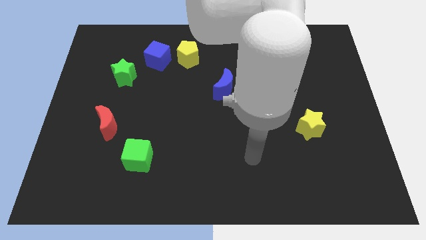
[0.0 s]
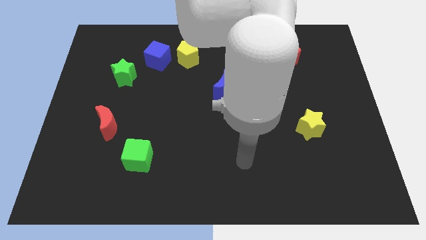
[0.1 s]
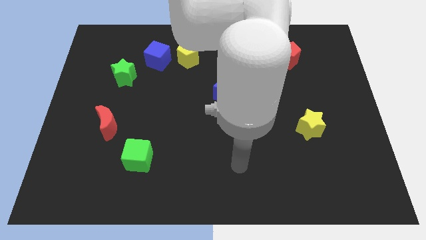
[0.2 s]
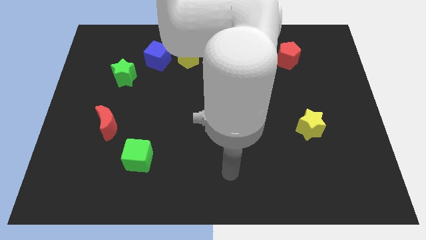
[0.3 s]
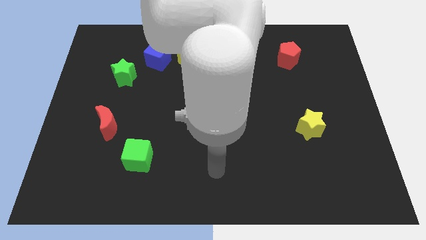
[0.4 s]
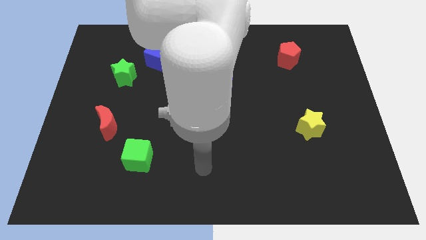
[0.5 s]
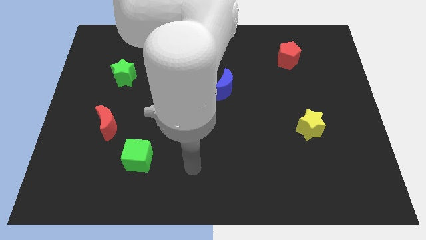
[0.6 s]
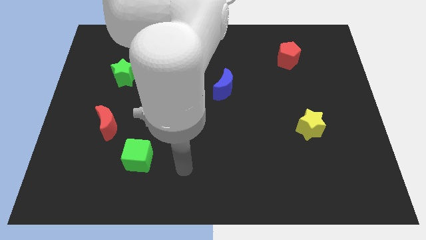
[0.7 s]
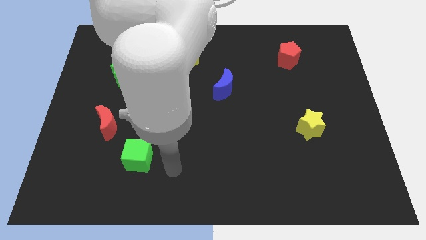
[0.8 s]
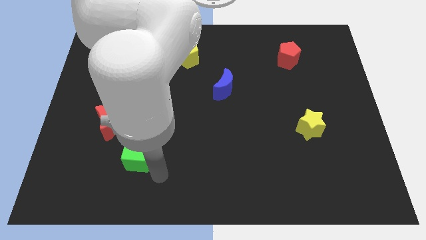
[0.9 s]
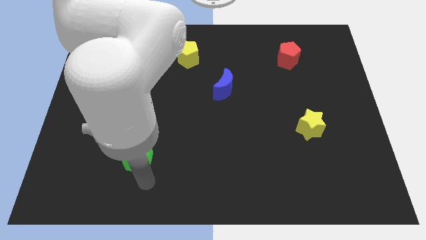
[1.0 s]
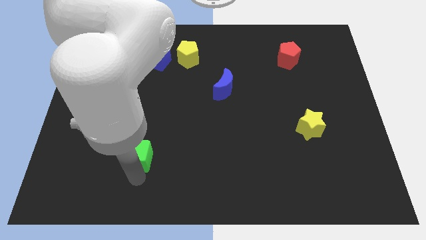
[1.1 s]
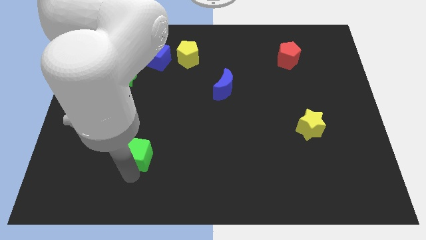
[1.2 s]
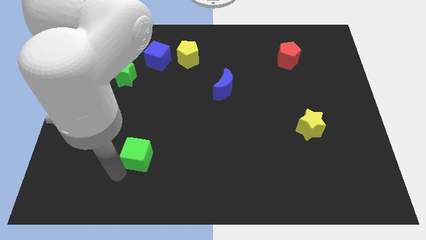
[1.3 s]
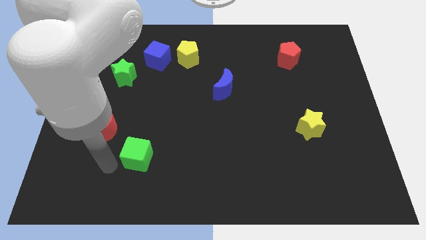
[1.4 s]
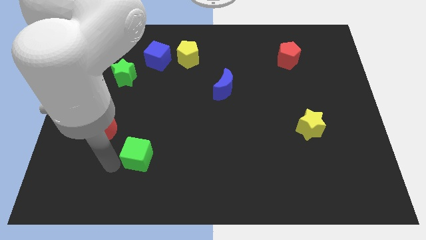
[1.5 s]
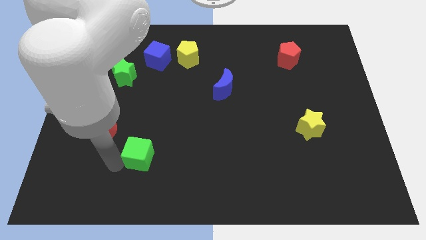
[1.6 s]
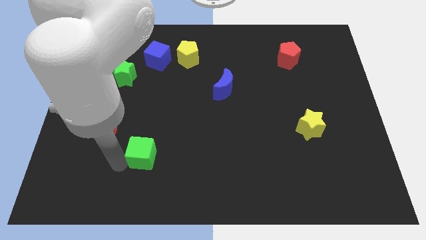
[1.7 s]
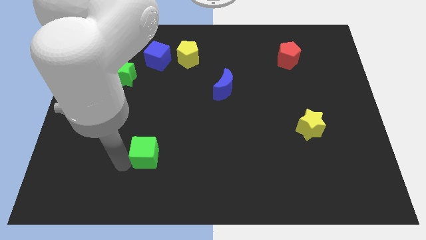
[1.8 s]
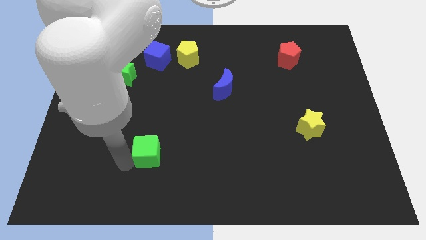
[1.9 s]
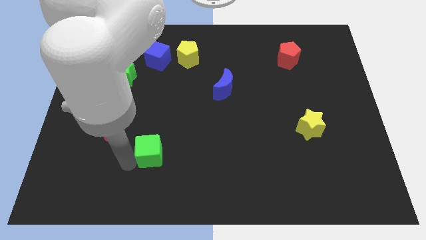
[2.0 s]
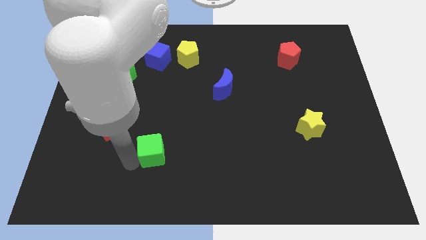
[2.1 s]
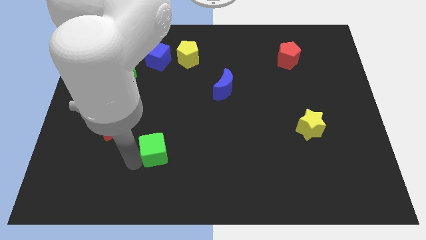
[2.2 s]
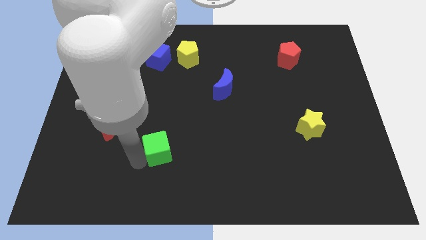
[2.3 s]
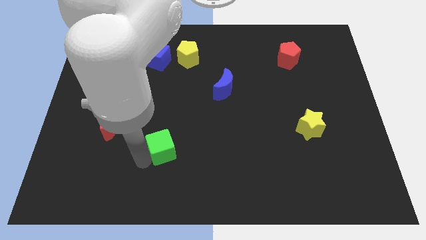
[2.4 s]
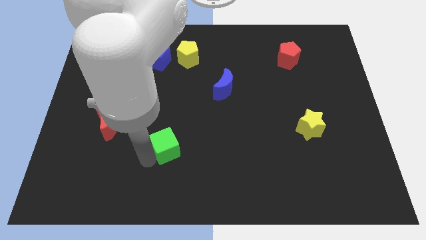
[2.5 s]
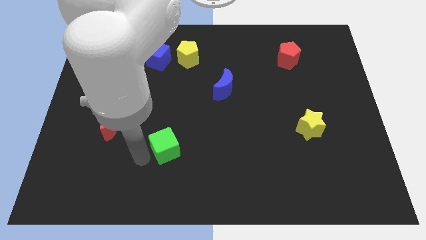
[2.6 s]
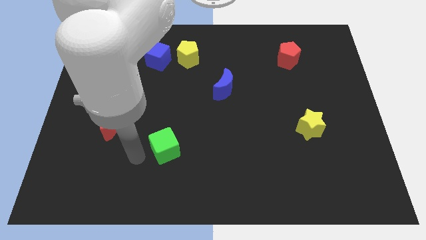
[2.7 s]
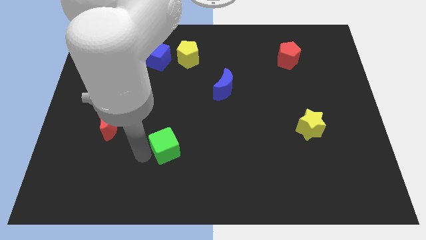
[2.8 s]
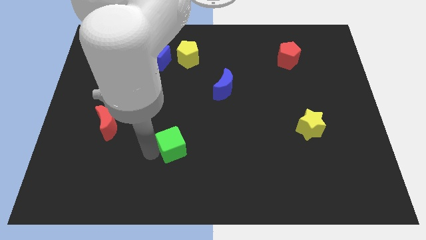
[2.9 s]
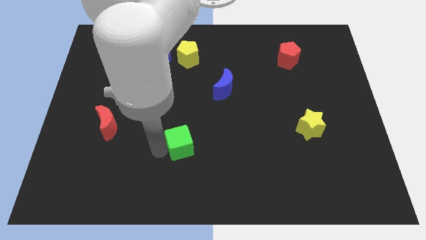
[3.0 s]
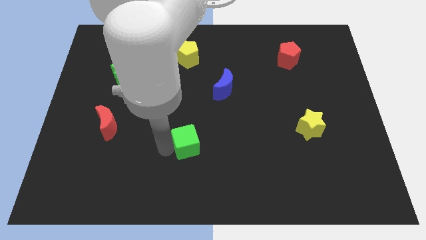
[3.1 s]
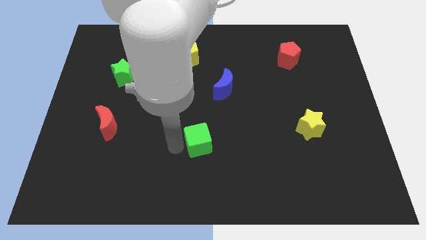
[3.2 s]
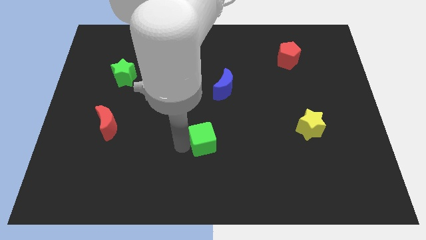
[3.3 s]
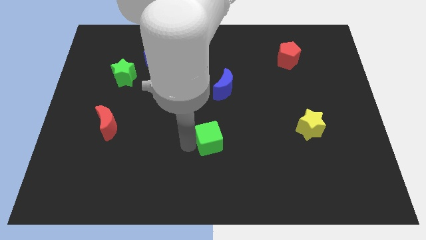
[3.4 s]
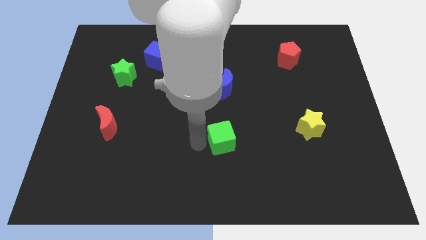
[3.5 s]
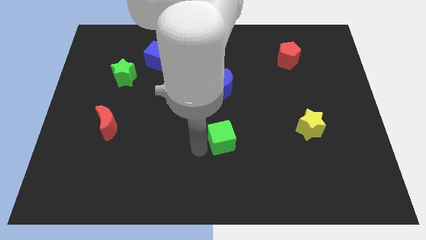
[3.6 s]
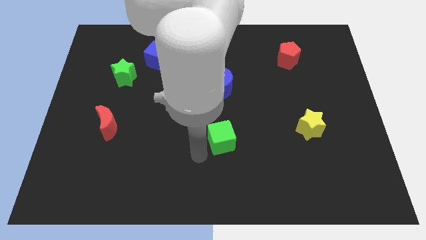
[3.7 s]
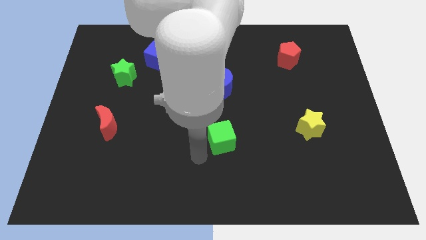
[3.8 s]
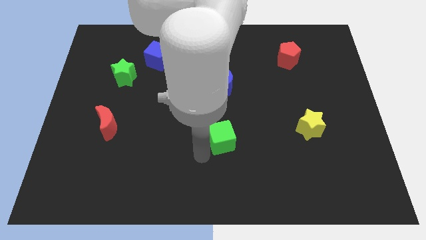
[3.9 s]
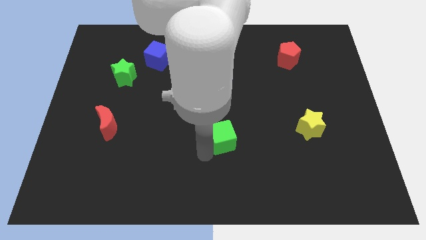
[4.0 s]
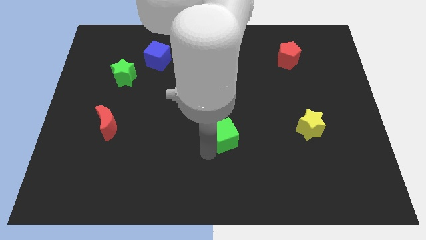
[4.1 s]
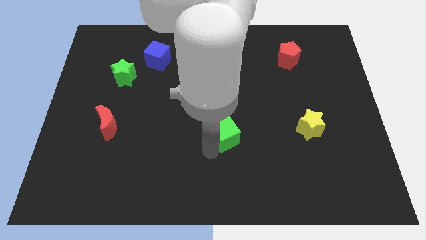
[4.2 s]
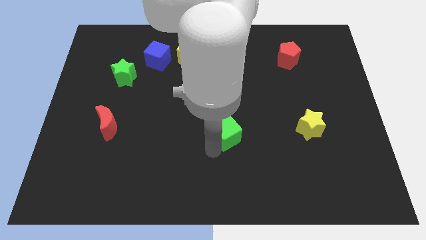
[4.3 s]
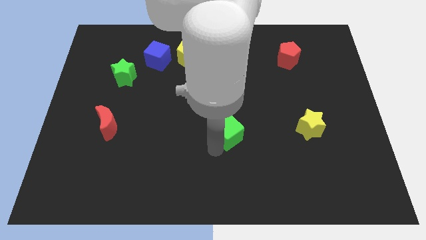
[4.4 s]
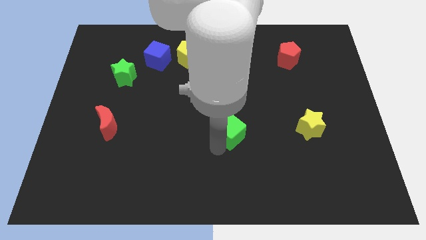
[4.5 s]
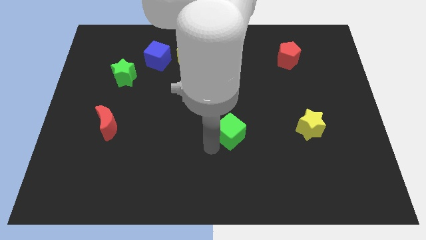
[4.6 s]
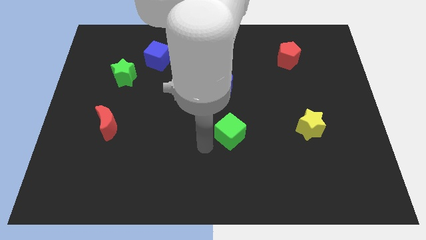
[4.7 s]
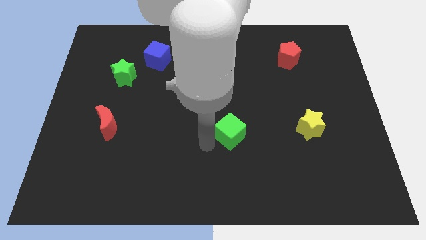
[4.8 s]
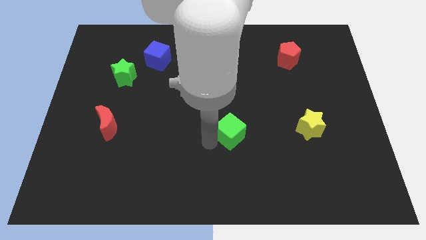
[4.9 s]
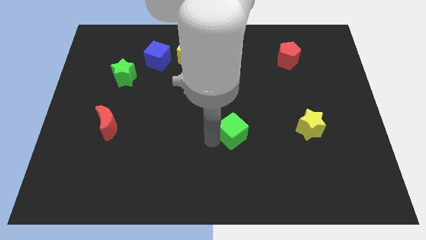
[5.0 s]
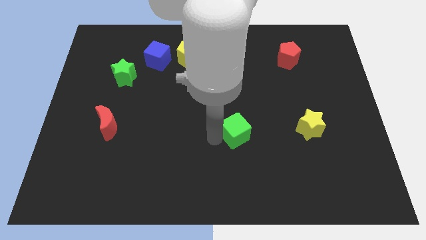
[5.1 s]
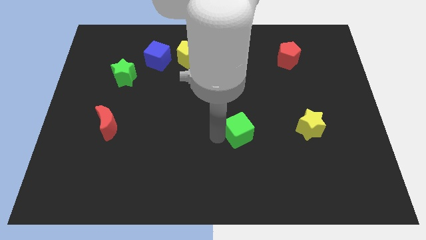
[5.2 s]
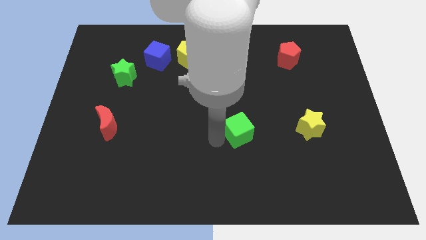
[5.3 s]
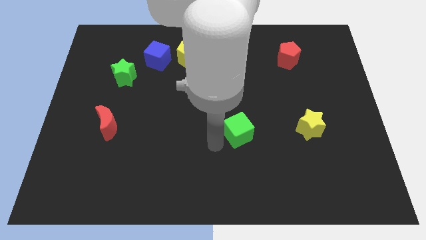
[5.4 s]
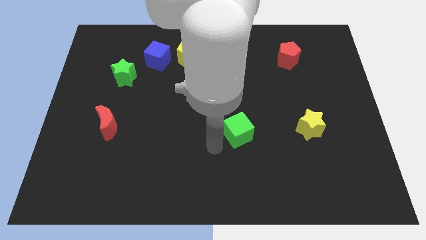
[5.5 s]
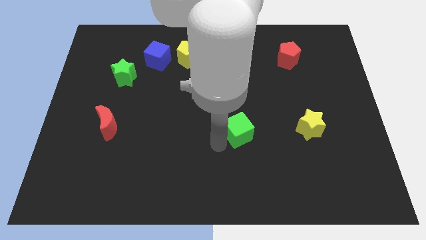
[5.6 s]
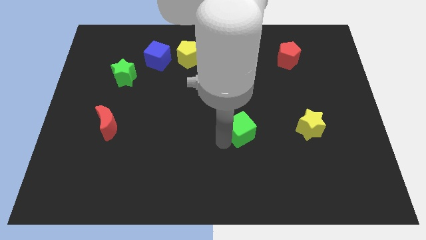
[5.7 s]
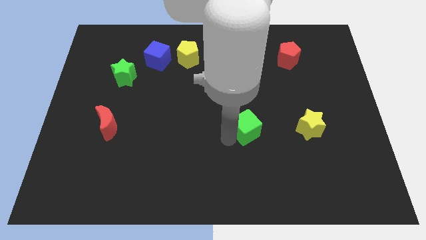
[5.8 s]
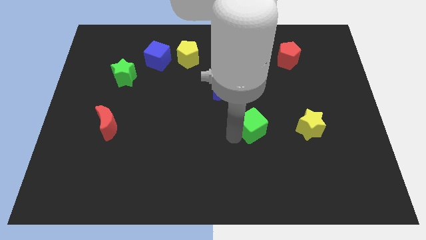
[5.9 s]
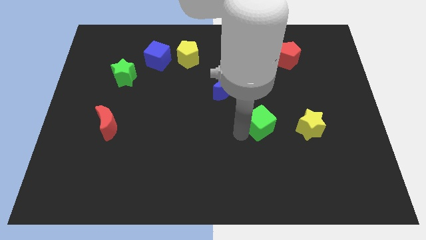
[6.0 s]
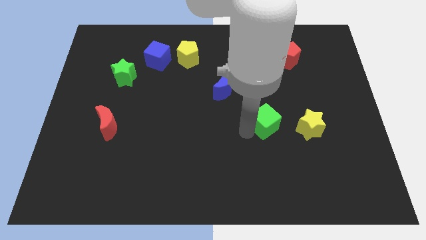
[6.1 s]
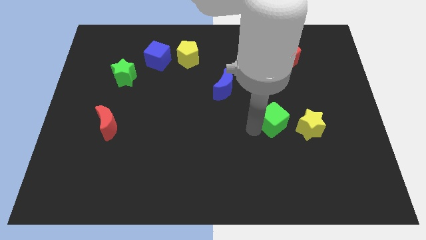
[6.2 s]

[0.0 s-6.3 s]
push the green cube to the top left side of the yellow star
